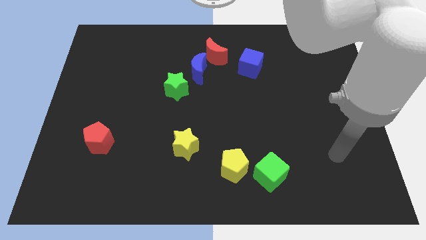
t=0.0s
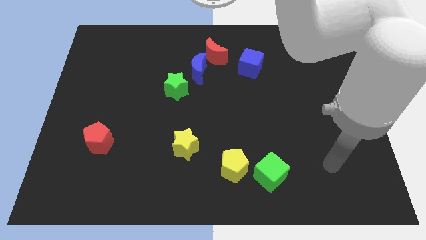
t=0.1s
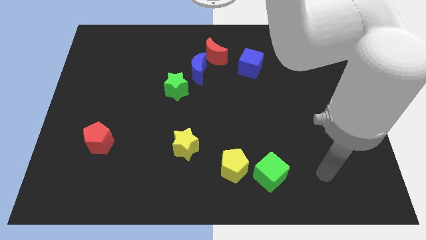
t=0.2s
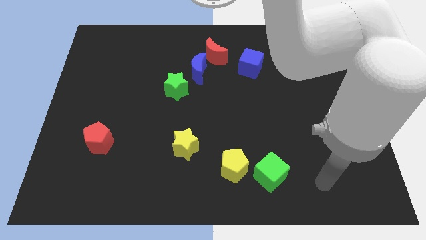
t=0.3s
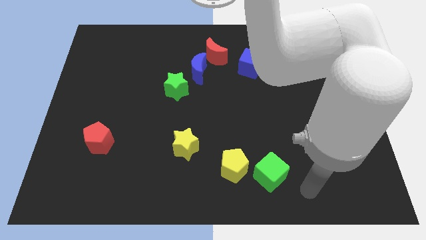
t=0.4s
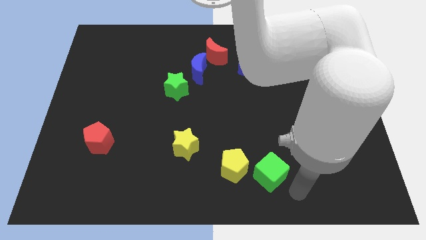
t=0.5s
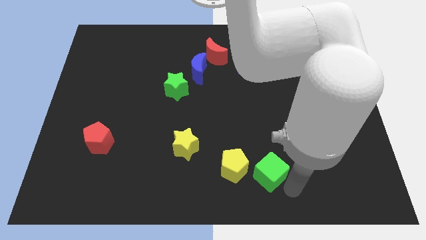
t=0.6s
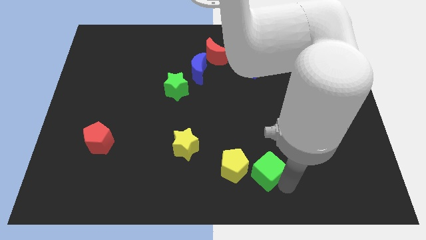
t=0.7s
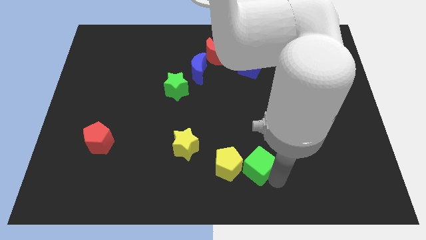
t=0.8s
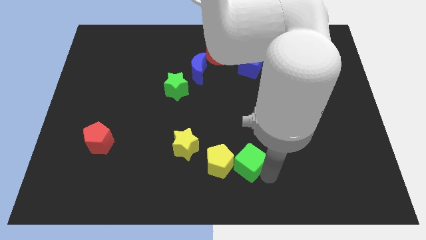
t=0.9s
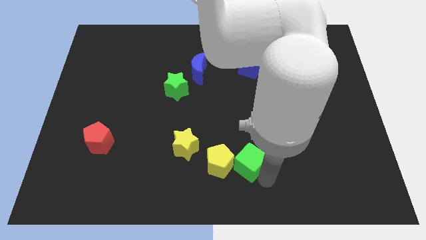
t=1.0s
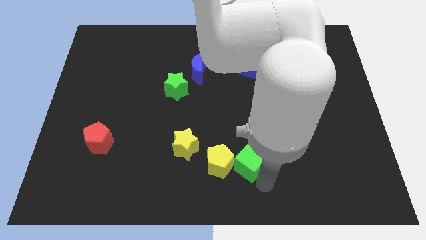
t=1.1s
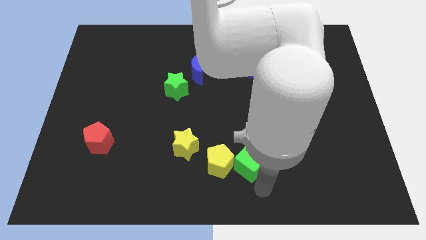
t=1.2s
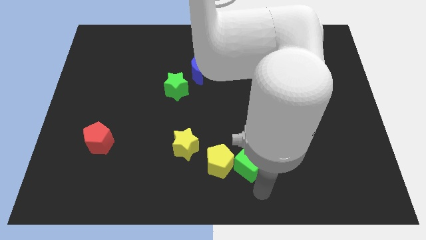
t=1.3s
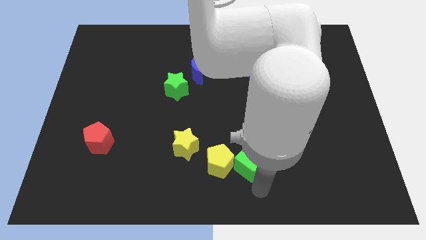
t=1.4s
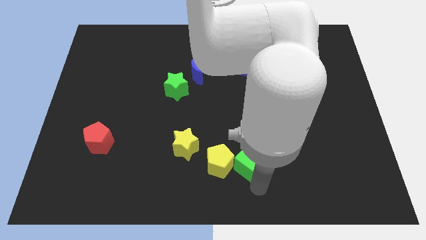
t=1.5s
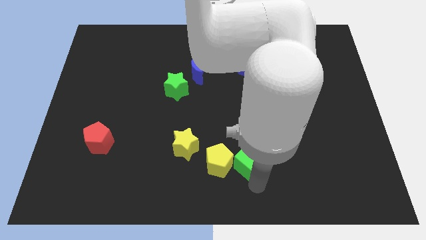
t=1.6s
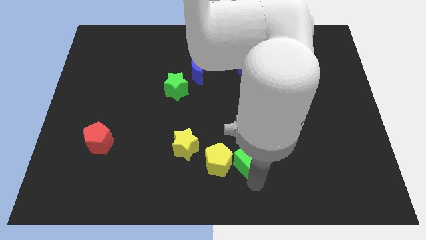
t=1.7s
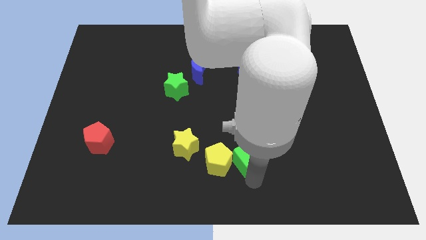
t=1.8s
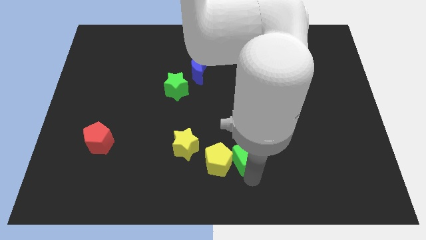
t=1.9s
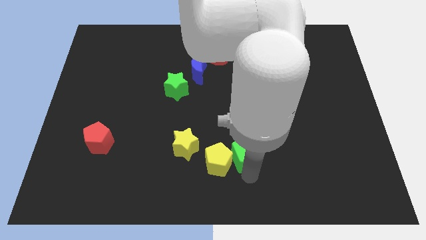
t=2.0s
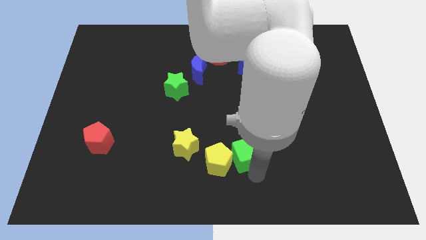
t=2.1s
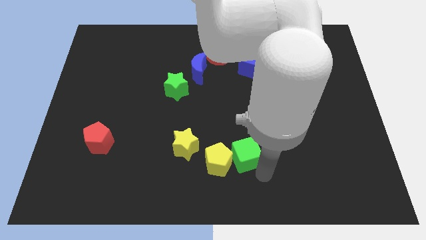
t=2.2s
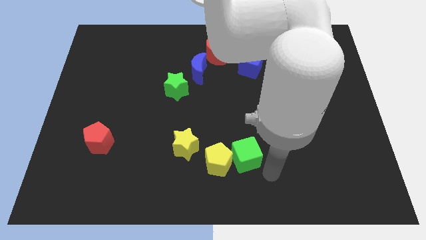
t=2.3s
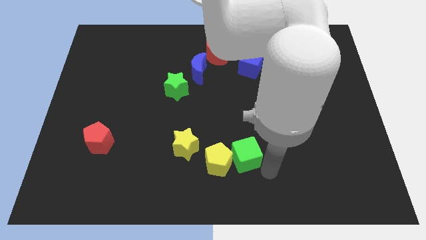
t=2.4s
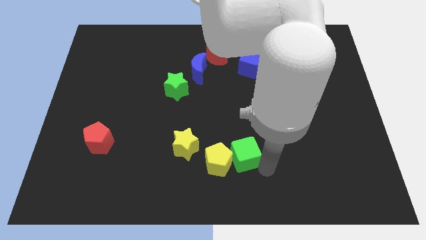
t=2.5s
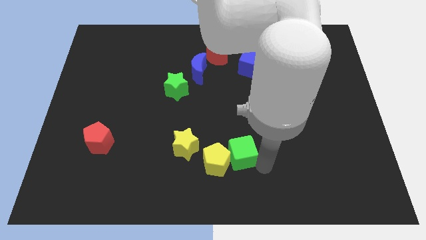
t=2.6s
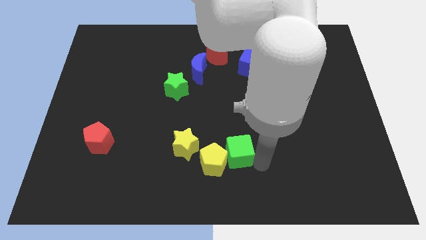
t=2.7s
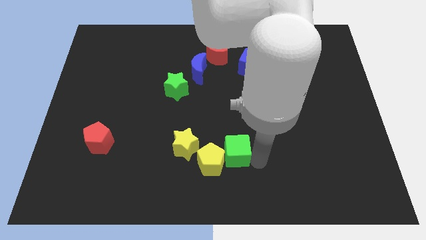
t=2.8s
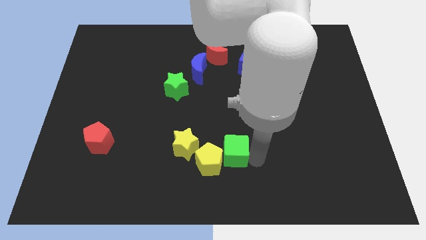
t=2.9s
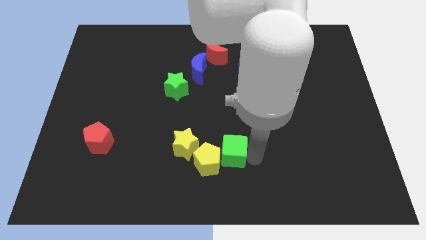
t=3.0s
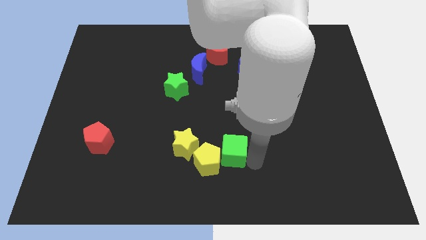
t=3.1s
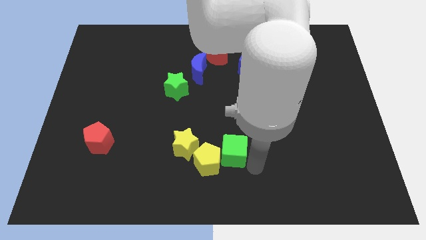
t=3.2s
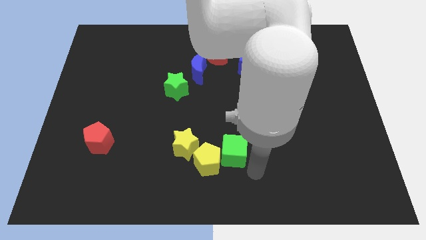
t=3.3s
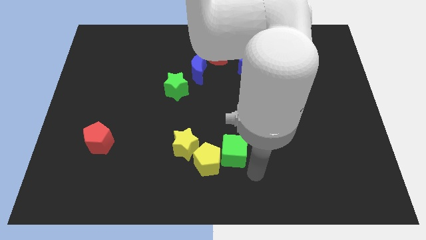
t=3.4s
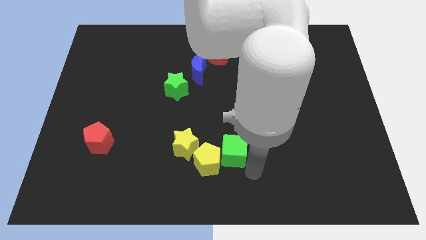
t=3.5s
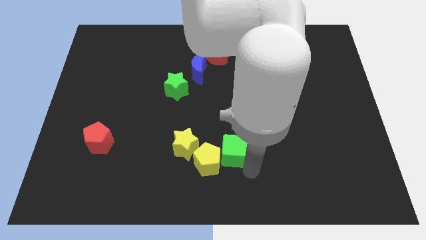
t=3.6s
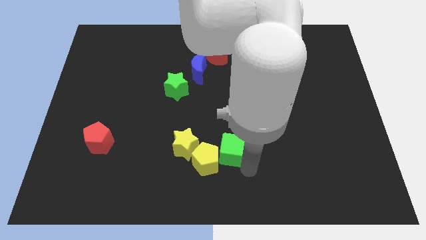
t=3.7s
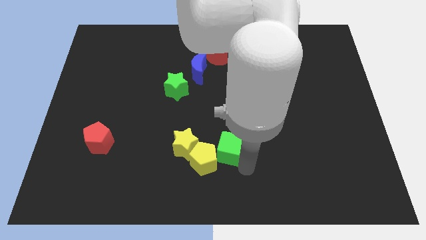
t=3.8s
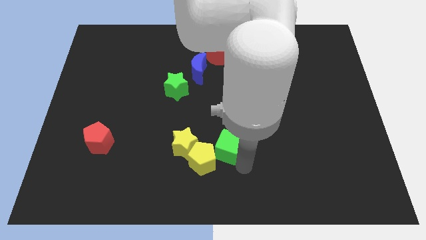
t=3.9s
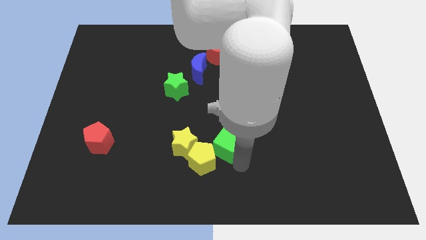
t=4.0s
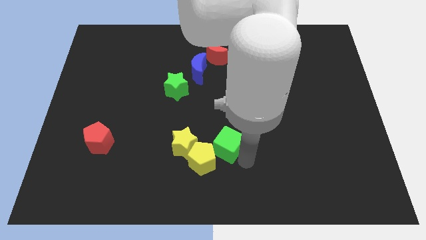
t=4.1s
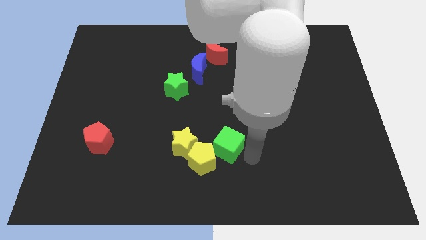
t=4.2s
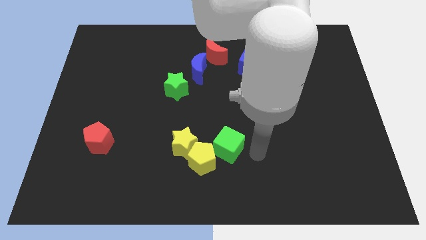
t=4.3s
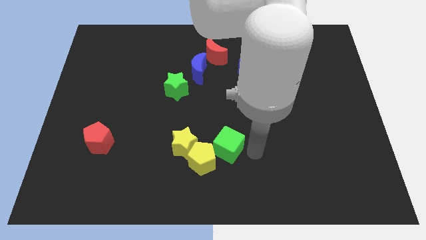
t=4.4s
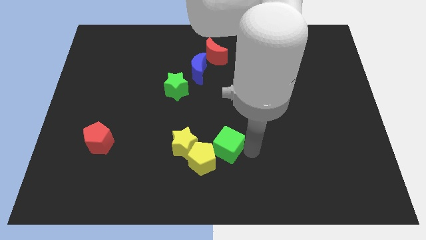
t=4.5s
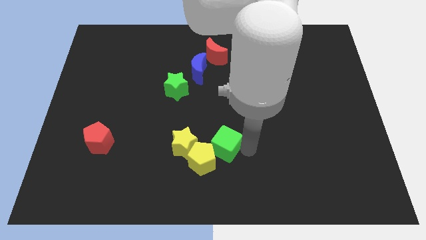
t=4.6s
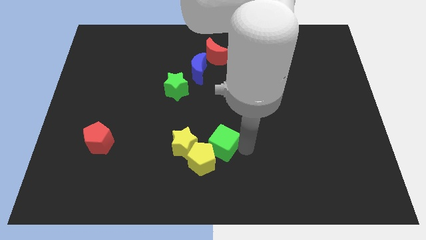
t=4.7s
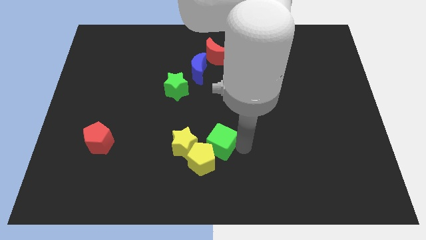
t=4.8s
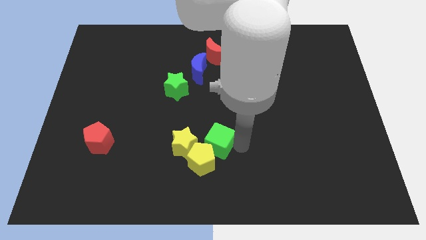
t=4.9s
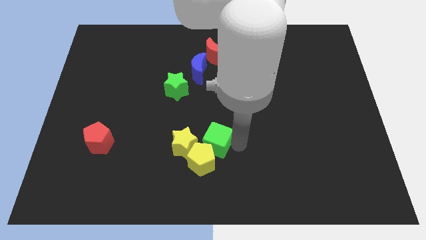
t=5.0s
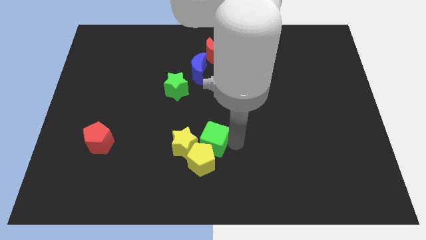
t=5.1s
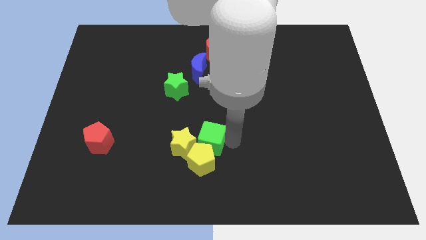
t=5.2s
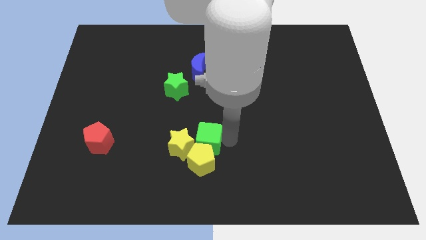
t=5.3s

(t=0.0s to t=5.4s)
slide the green cube next to the yellow star

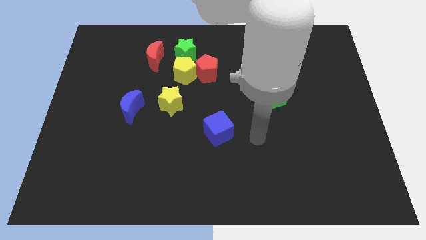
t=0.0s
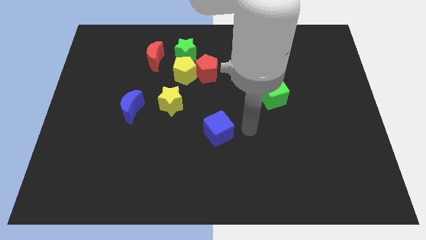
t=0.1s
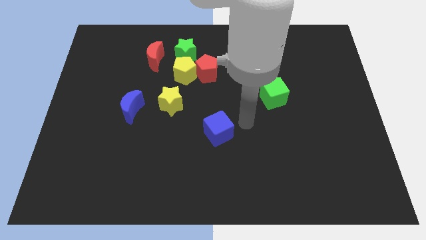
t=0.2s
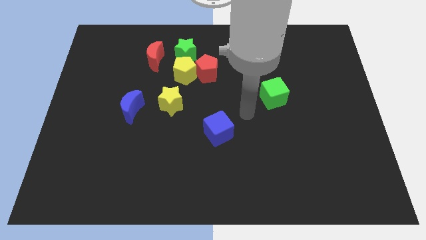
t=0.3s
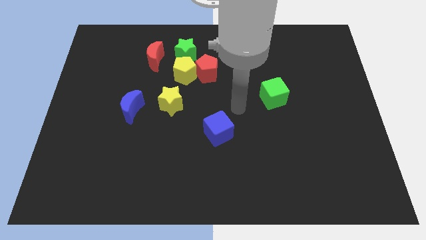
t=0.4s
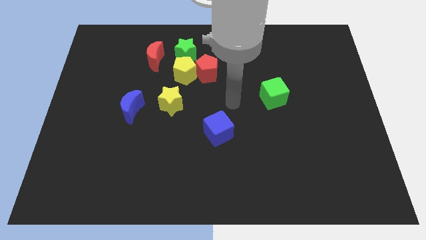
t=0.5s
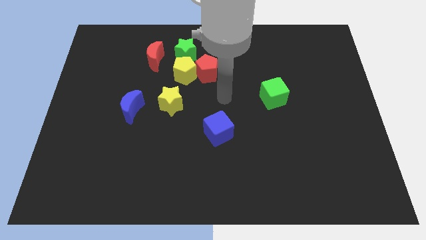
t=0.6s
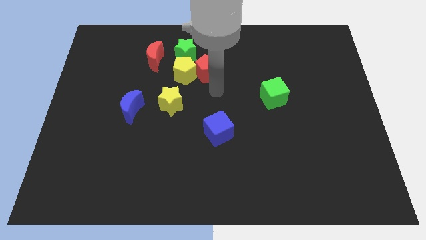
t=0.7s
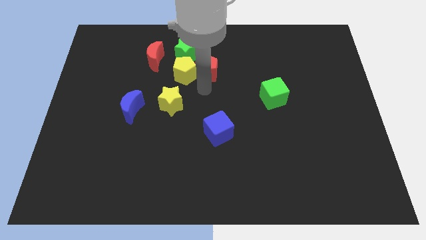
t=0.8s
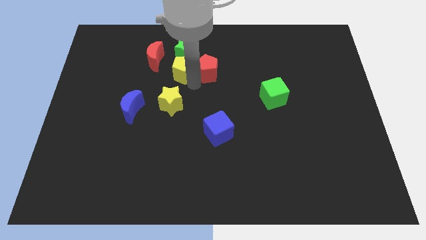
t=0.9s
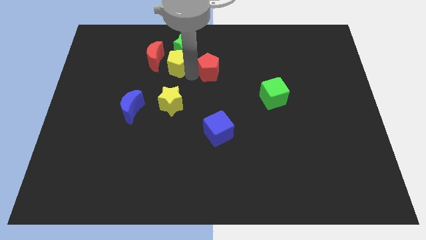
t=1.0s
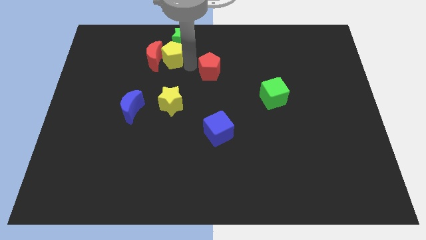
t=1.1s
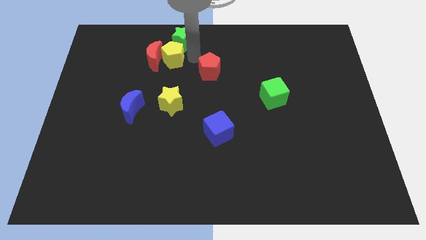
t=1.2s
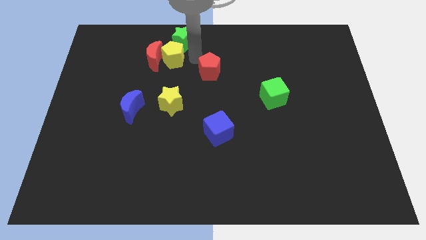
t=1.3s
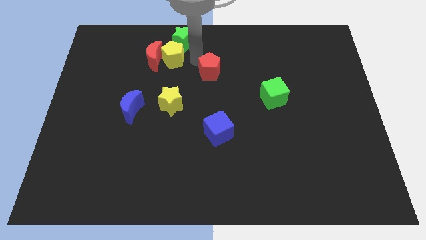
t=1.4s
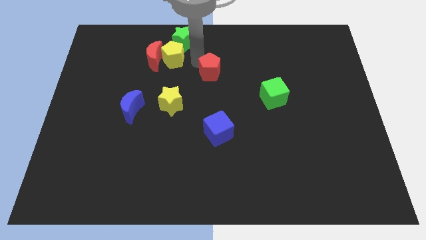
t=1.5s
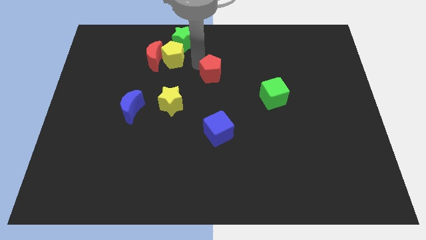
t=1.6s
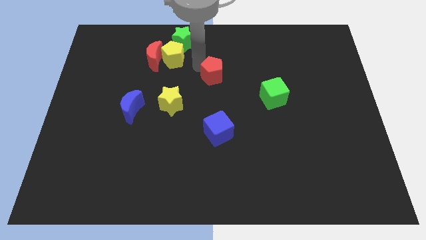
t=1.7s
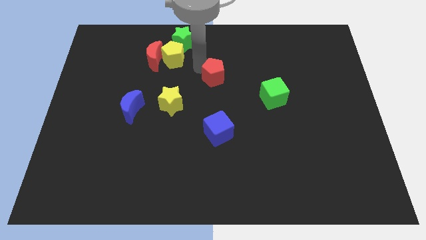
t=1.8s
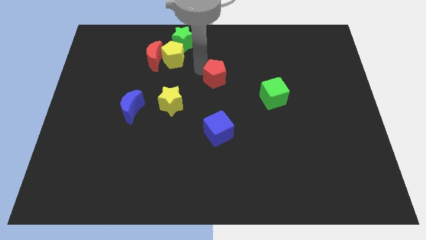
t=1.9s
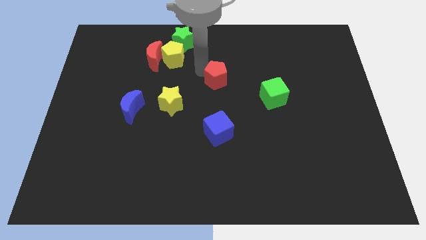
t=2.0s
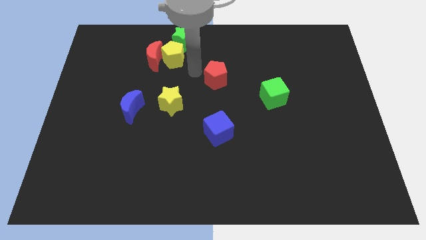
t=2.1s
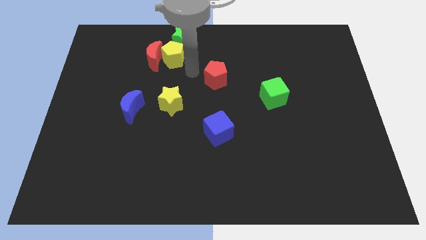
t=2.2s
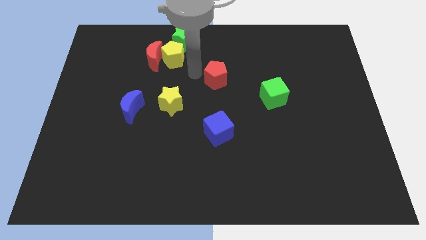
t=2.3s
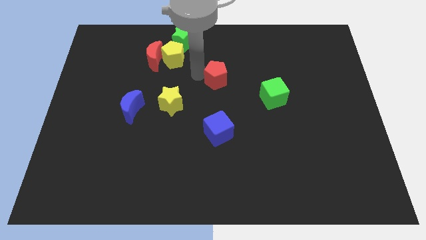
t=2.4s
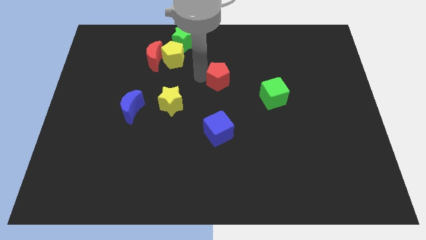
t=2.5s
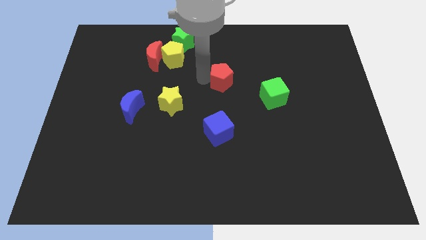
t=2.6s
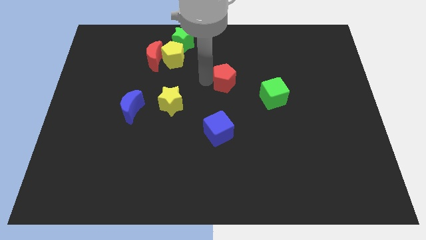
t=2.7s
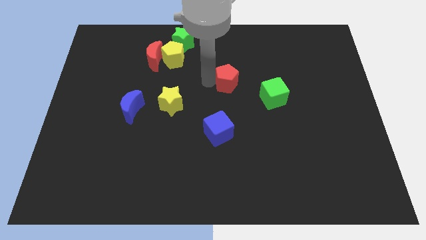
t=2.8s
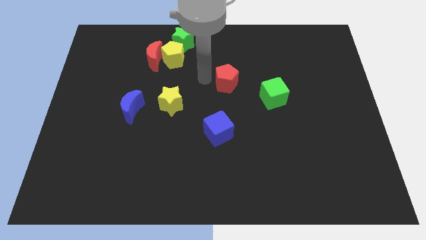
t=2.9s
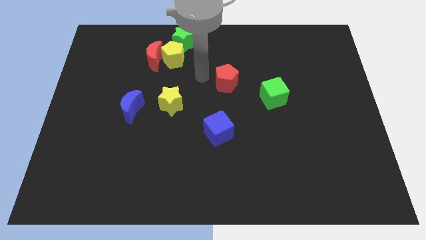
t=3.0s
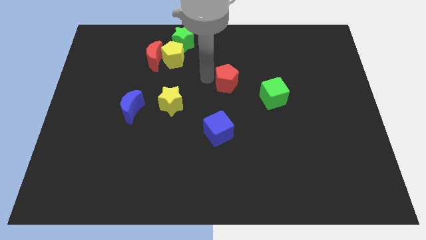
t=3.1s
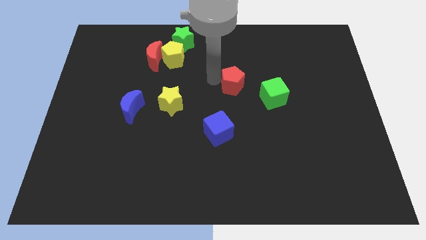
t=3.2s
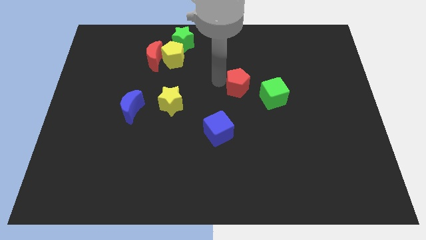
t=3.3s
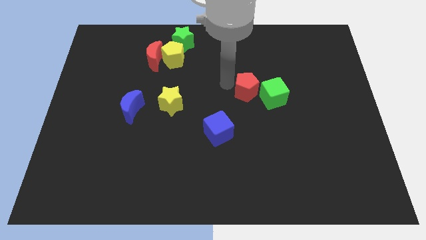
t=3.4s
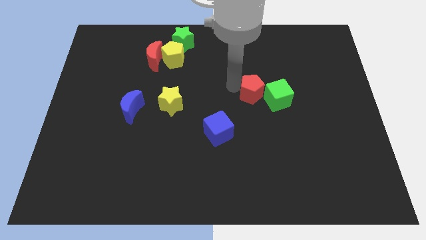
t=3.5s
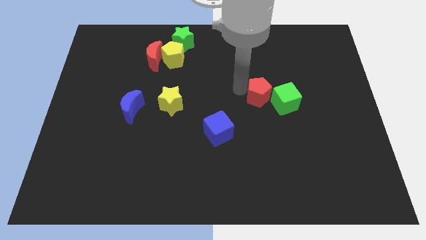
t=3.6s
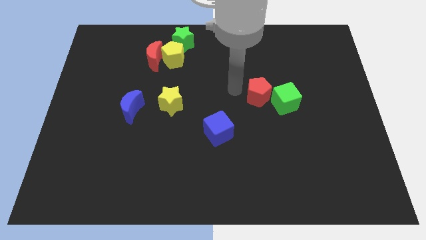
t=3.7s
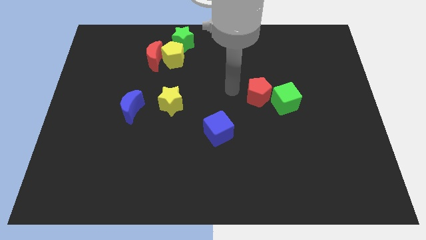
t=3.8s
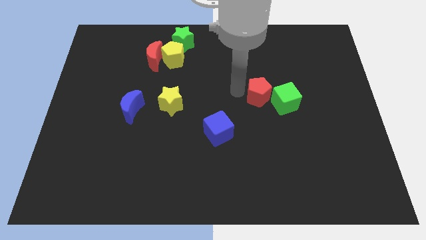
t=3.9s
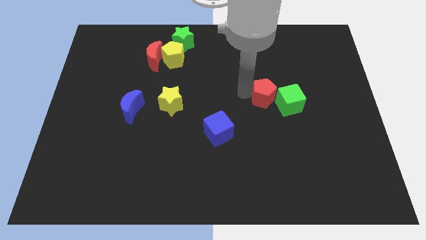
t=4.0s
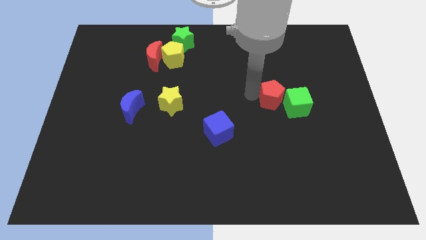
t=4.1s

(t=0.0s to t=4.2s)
move the red pentagon to the green cube
